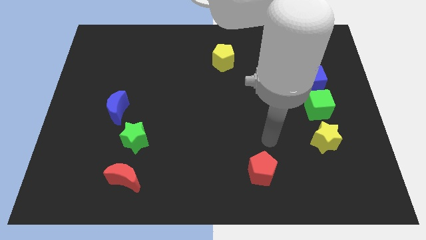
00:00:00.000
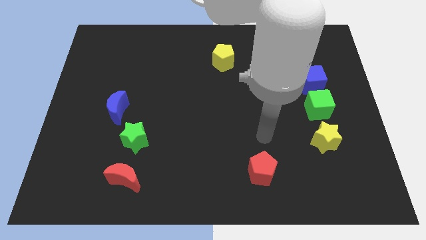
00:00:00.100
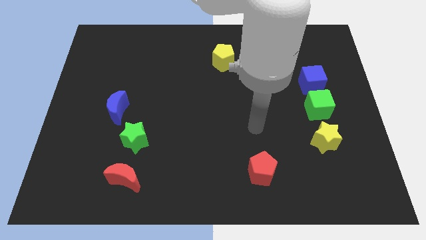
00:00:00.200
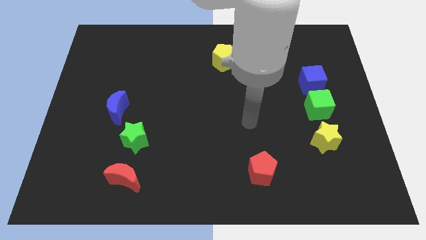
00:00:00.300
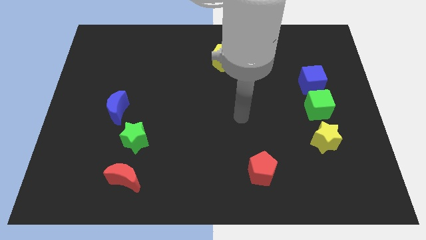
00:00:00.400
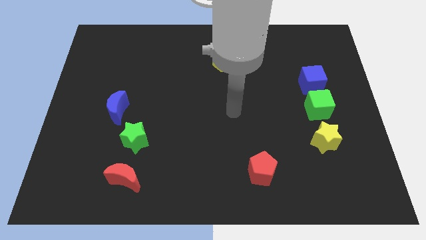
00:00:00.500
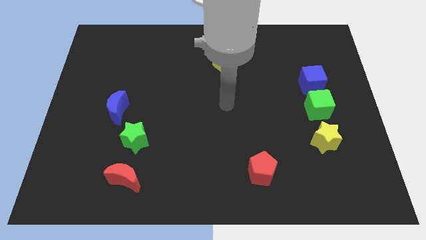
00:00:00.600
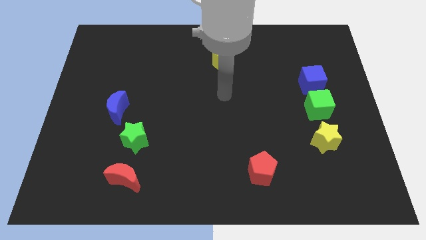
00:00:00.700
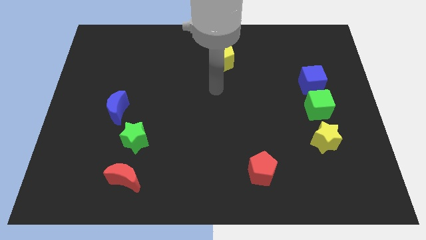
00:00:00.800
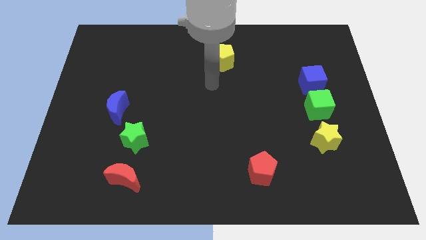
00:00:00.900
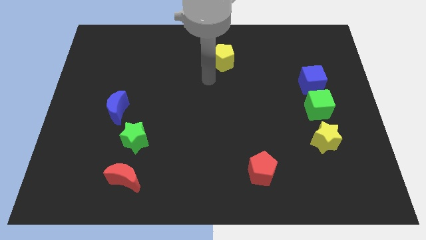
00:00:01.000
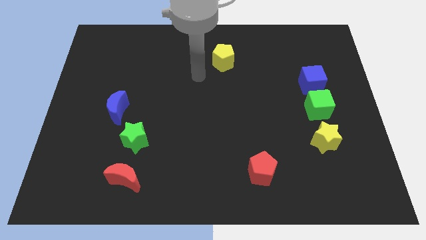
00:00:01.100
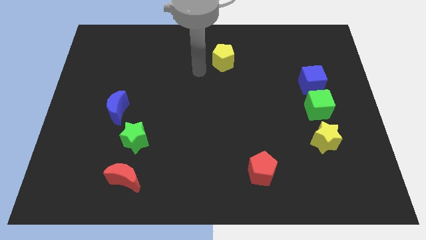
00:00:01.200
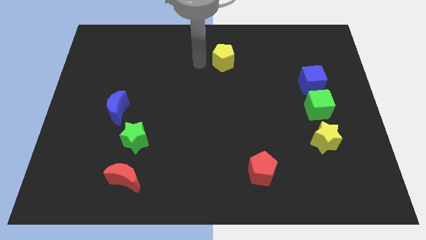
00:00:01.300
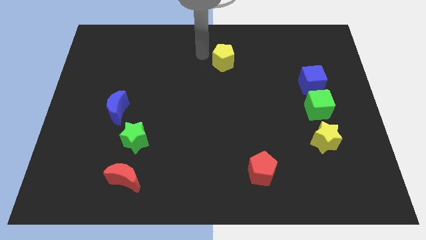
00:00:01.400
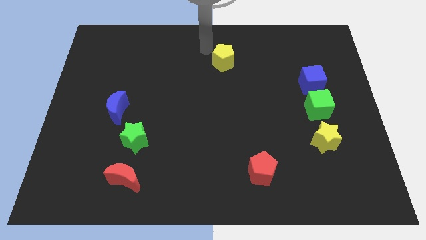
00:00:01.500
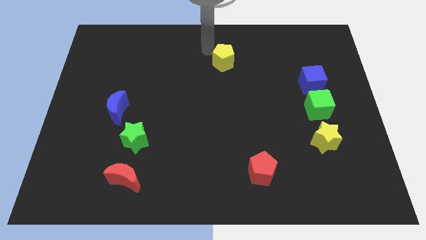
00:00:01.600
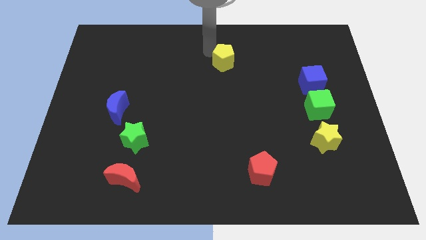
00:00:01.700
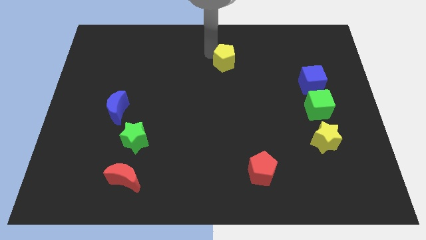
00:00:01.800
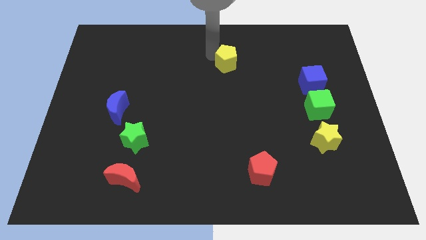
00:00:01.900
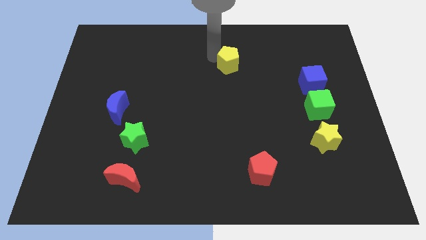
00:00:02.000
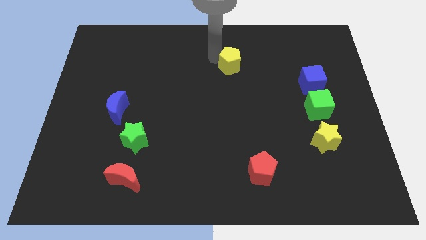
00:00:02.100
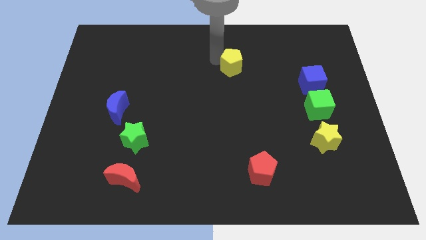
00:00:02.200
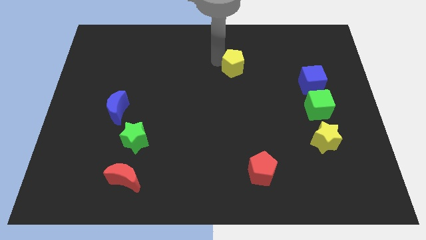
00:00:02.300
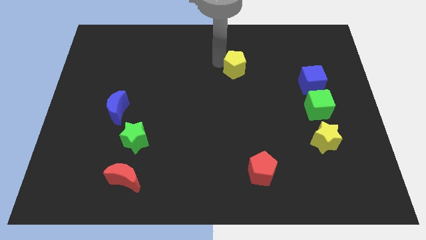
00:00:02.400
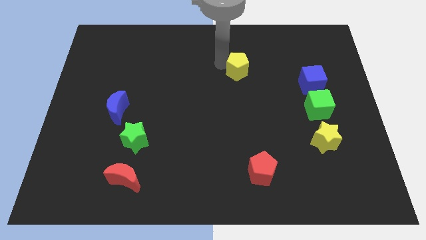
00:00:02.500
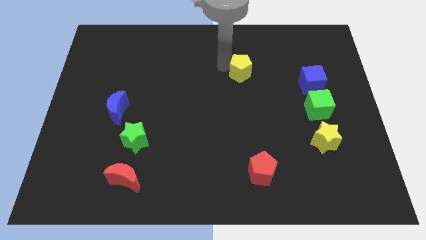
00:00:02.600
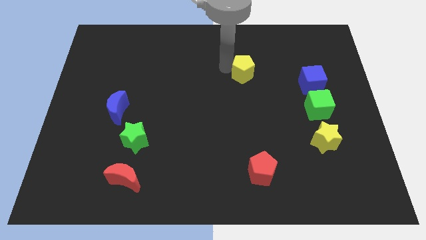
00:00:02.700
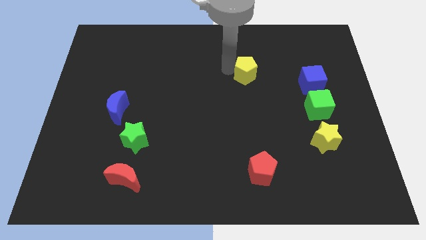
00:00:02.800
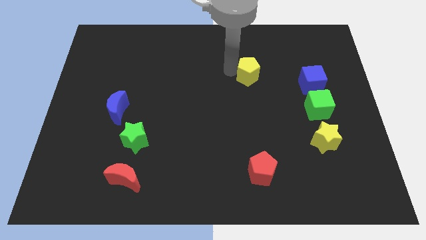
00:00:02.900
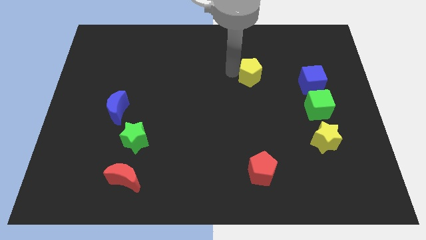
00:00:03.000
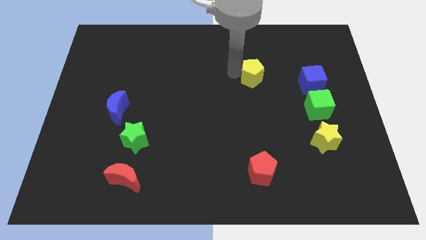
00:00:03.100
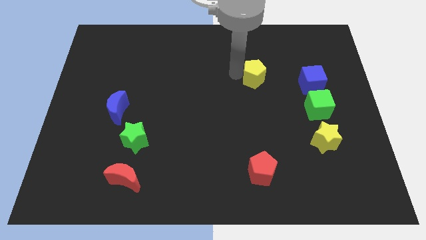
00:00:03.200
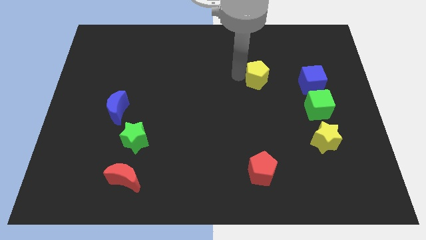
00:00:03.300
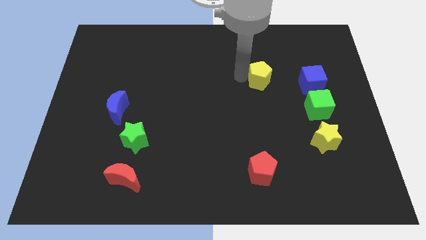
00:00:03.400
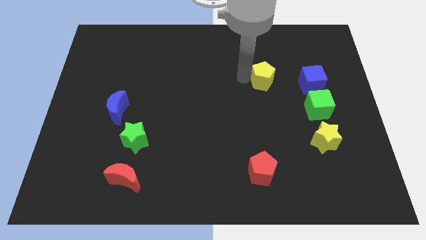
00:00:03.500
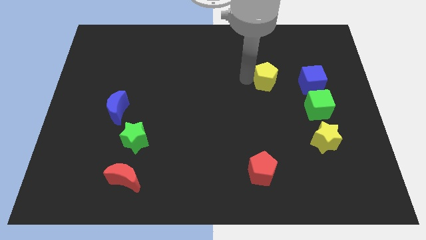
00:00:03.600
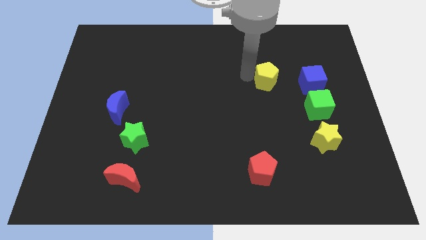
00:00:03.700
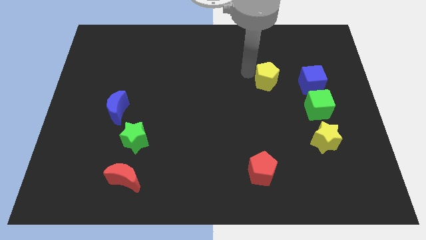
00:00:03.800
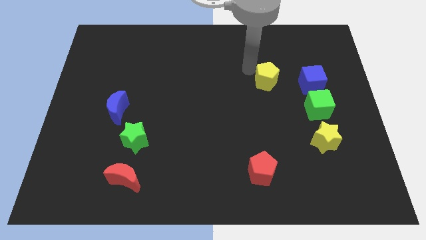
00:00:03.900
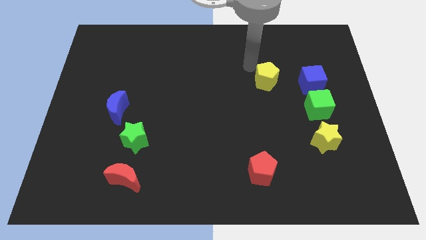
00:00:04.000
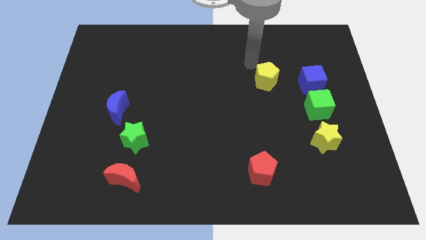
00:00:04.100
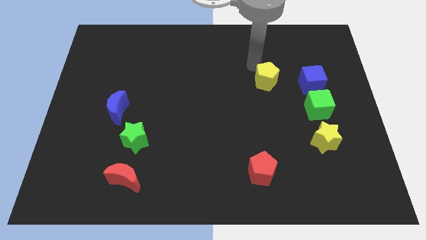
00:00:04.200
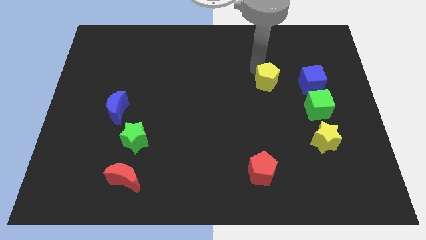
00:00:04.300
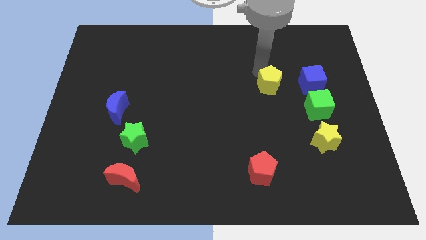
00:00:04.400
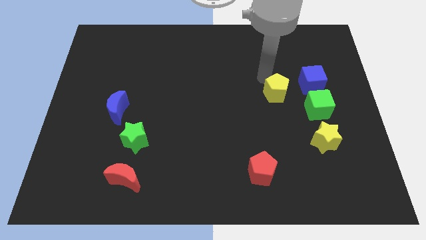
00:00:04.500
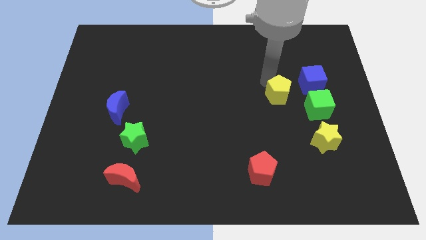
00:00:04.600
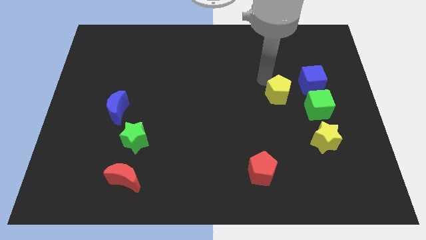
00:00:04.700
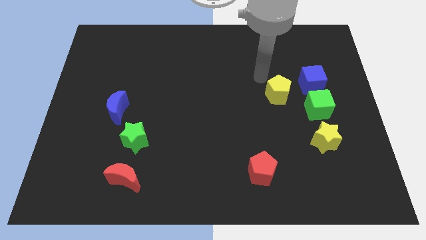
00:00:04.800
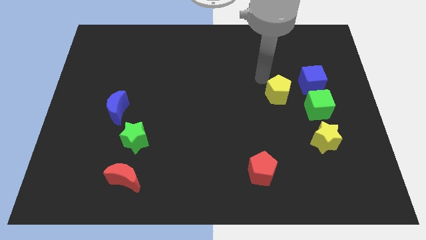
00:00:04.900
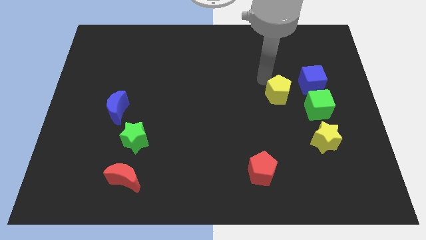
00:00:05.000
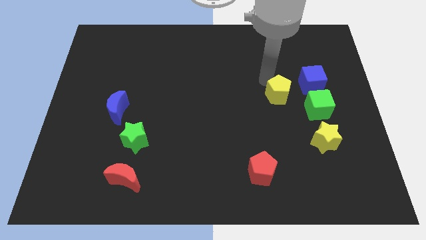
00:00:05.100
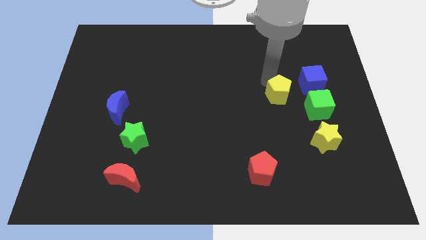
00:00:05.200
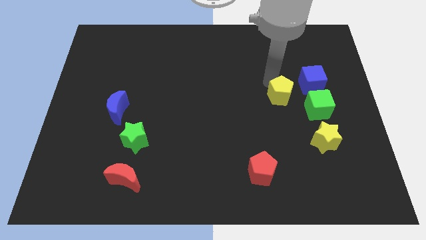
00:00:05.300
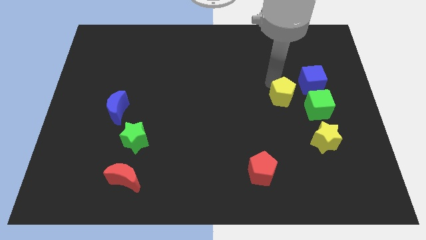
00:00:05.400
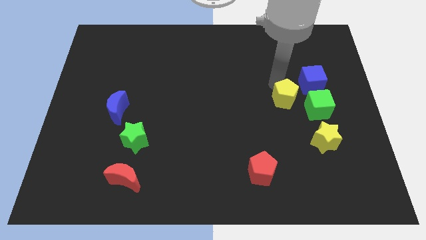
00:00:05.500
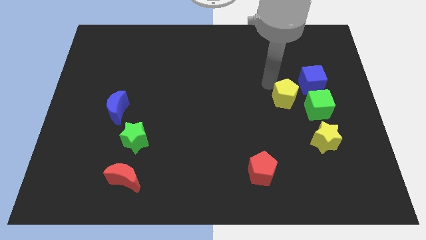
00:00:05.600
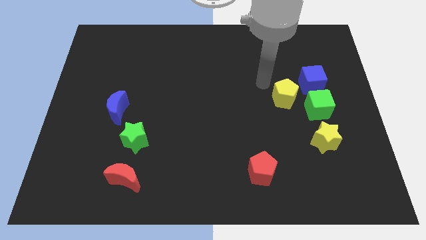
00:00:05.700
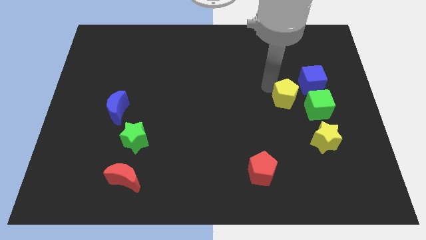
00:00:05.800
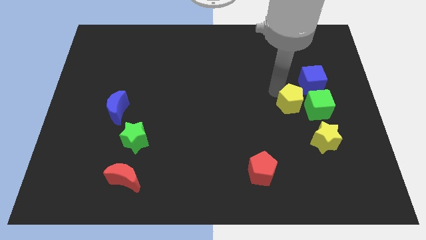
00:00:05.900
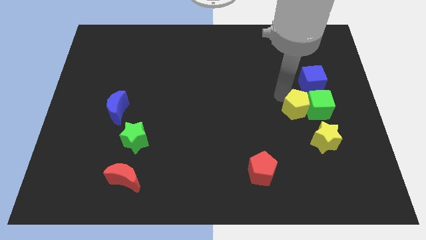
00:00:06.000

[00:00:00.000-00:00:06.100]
put the yellow pentagon below the blue cube
